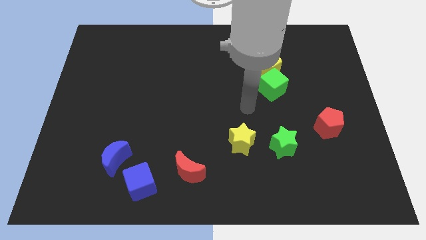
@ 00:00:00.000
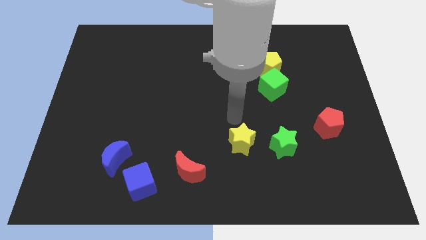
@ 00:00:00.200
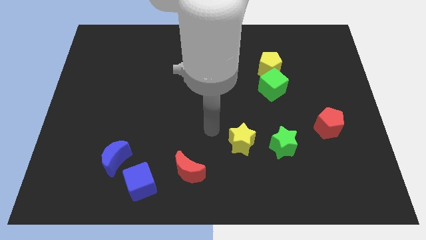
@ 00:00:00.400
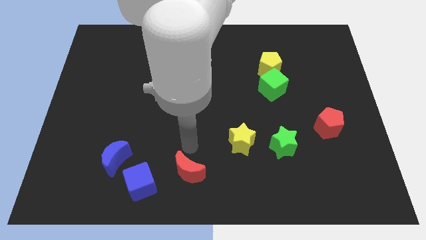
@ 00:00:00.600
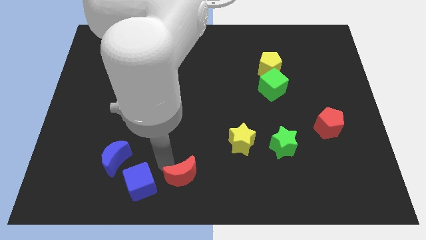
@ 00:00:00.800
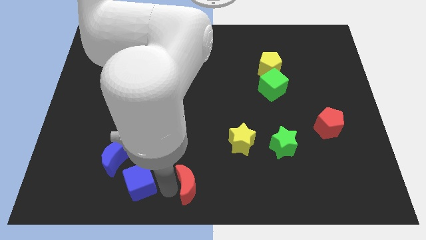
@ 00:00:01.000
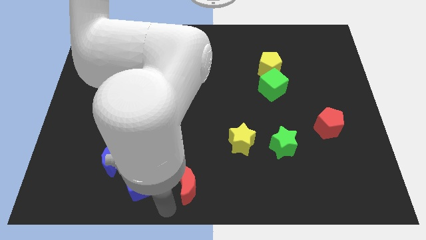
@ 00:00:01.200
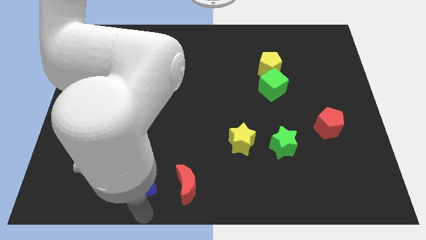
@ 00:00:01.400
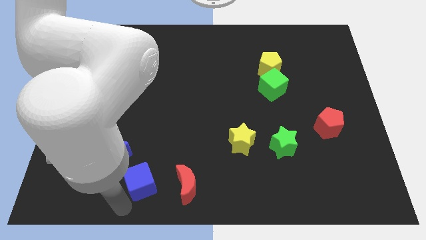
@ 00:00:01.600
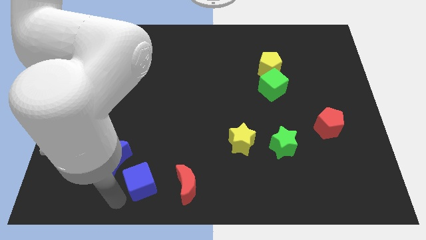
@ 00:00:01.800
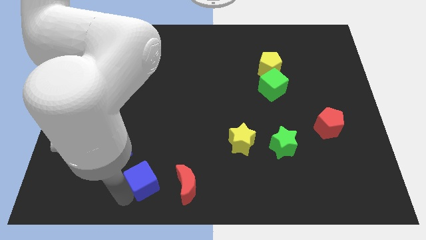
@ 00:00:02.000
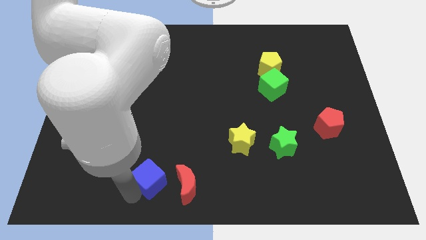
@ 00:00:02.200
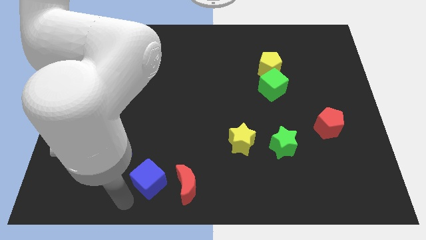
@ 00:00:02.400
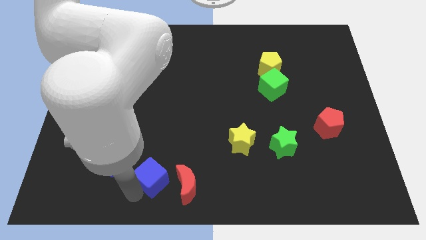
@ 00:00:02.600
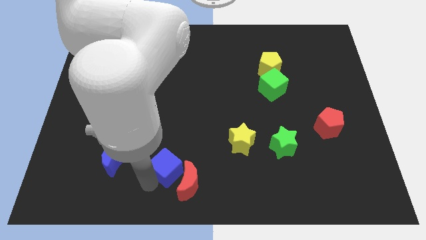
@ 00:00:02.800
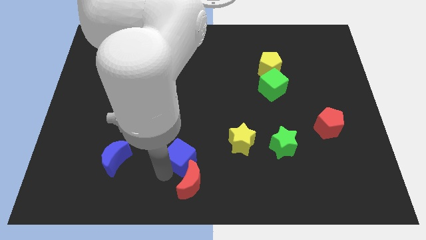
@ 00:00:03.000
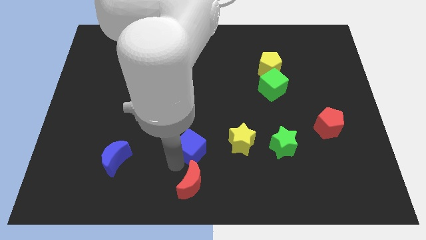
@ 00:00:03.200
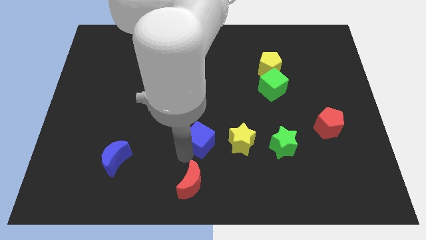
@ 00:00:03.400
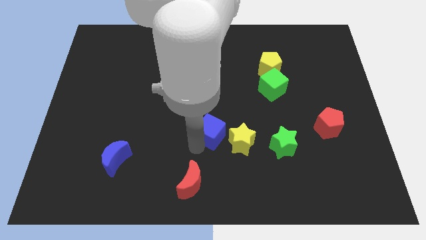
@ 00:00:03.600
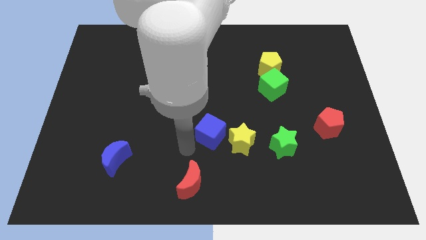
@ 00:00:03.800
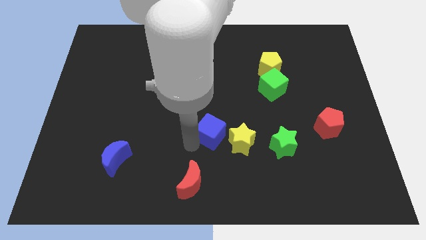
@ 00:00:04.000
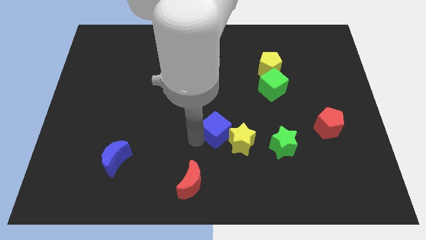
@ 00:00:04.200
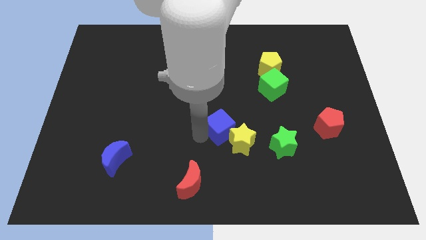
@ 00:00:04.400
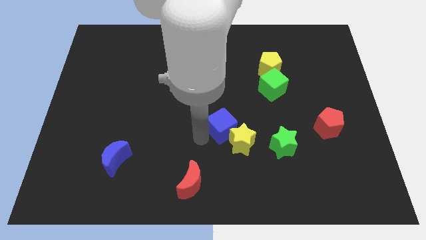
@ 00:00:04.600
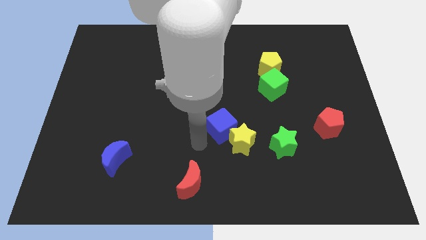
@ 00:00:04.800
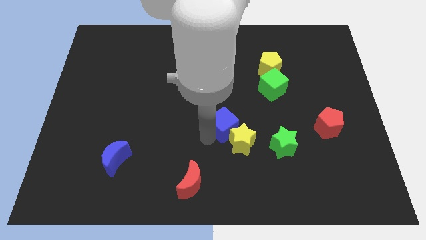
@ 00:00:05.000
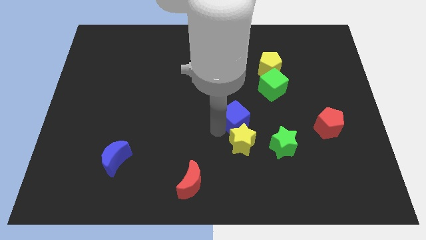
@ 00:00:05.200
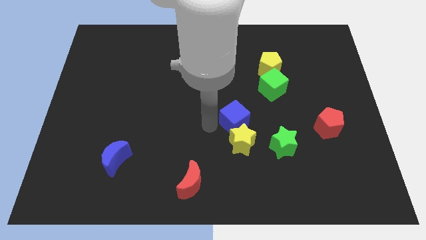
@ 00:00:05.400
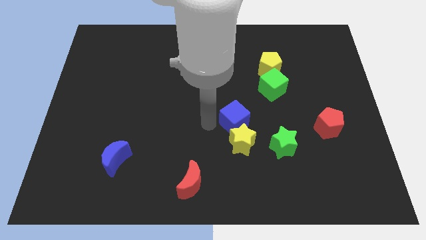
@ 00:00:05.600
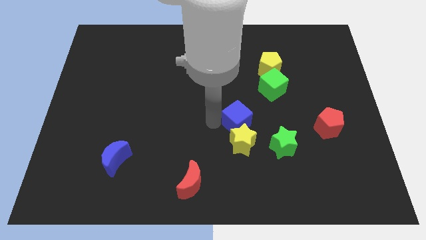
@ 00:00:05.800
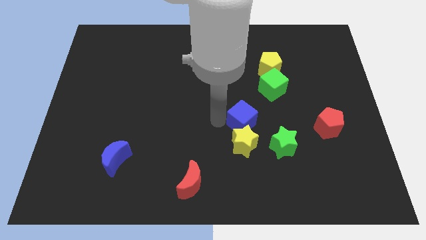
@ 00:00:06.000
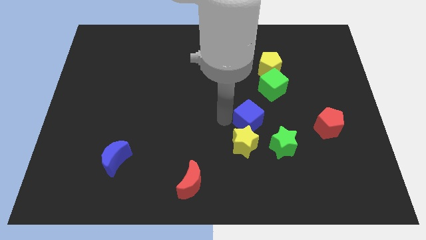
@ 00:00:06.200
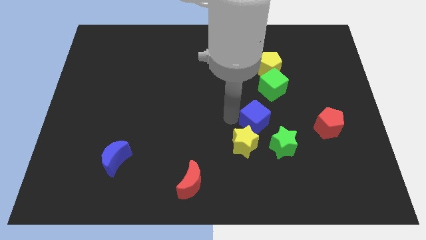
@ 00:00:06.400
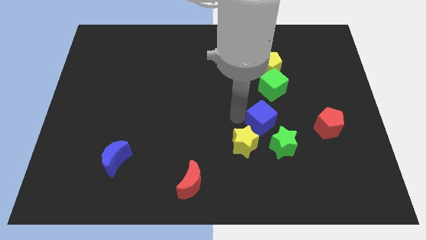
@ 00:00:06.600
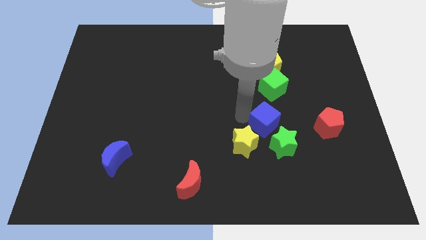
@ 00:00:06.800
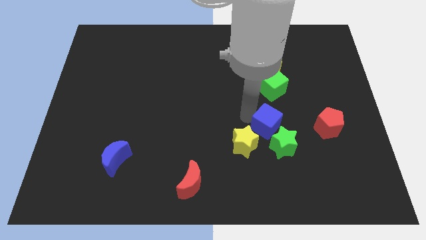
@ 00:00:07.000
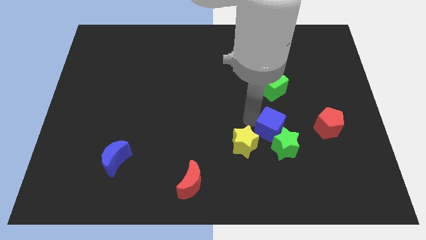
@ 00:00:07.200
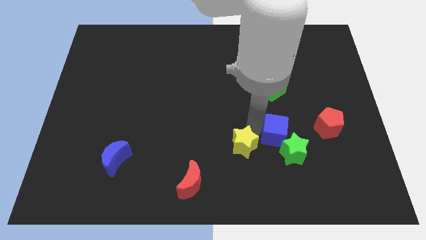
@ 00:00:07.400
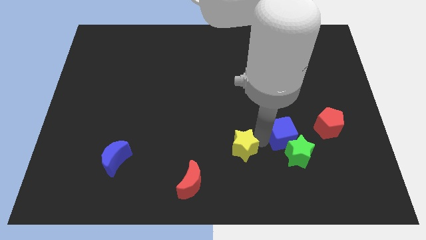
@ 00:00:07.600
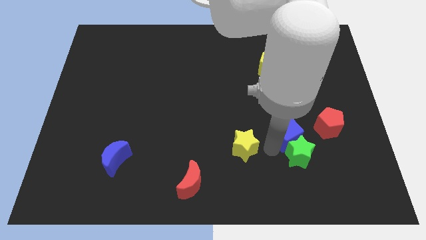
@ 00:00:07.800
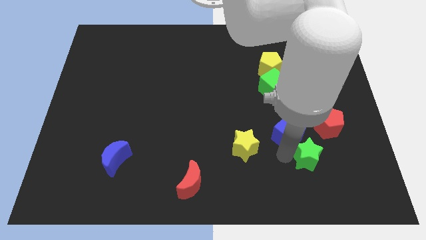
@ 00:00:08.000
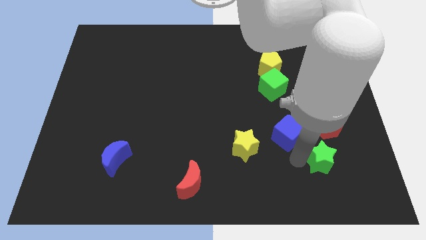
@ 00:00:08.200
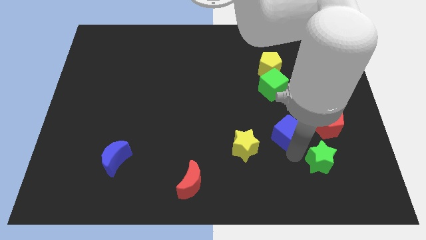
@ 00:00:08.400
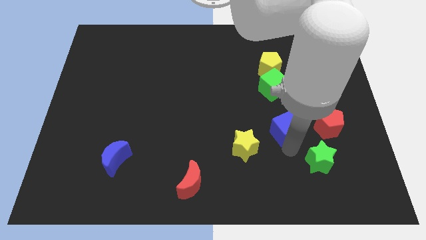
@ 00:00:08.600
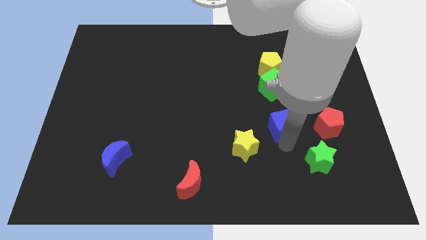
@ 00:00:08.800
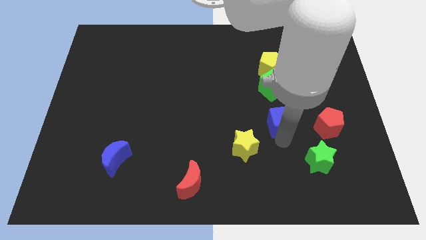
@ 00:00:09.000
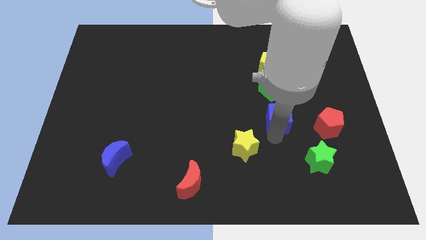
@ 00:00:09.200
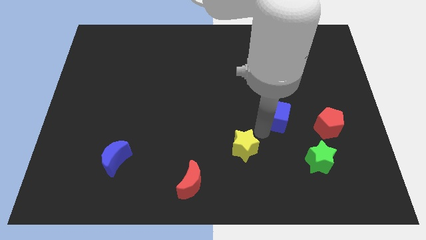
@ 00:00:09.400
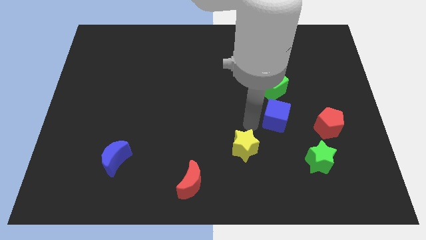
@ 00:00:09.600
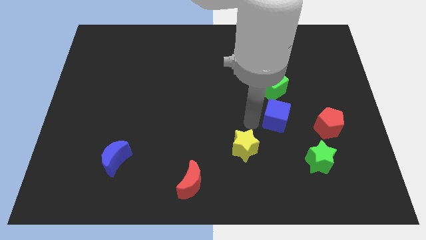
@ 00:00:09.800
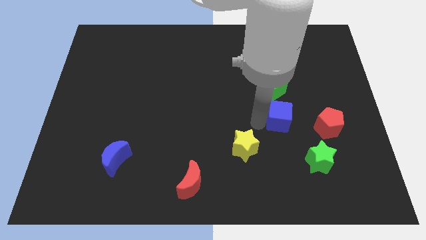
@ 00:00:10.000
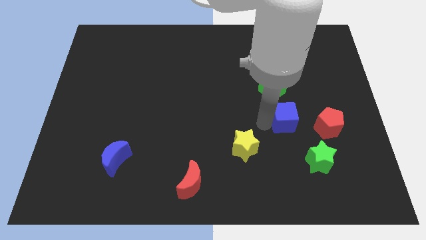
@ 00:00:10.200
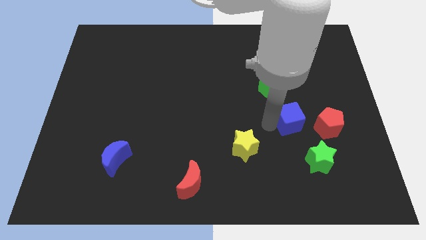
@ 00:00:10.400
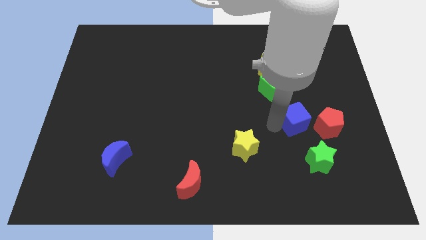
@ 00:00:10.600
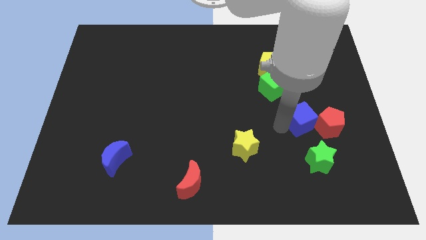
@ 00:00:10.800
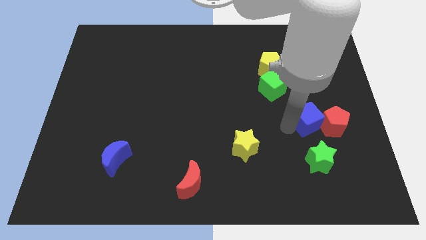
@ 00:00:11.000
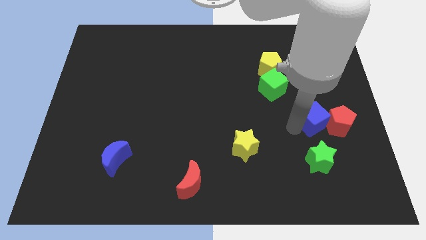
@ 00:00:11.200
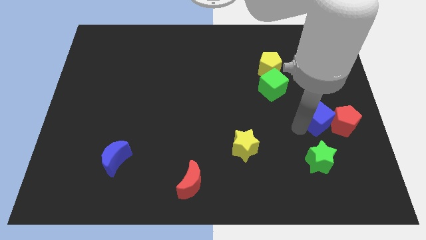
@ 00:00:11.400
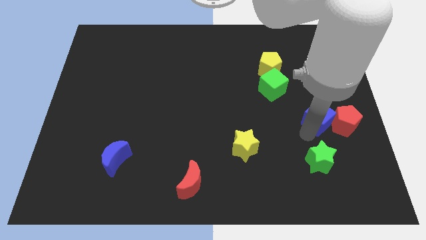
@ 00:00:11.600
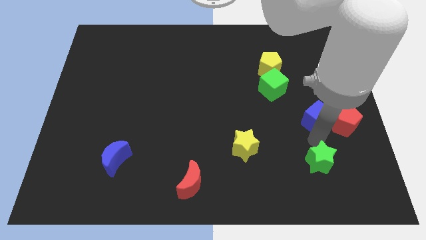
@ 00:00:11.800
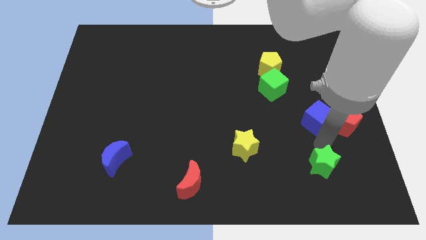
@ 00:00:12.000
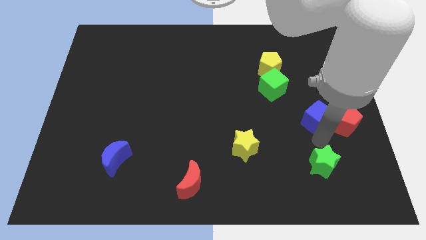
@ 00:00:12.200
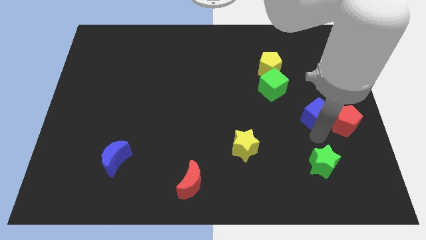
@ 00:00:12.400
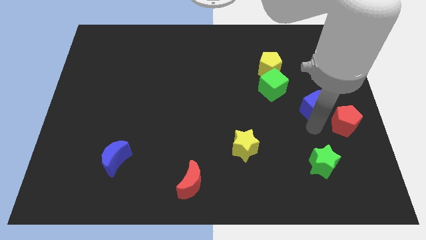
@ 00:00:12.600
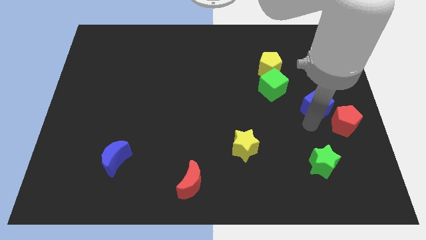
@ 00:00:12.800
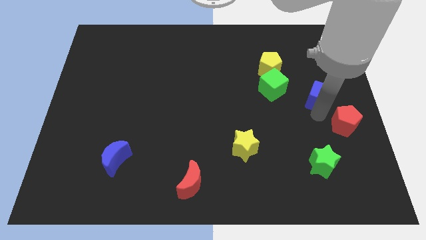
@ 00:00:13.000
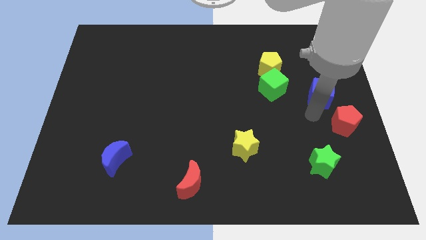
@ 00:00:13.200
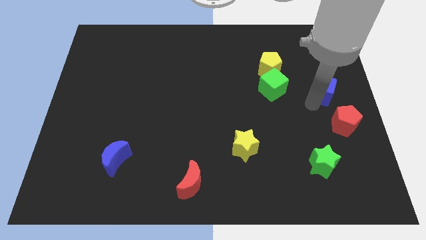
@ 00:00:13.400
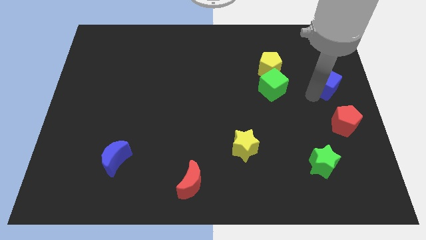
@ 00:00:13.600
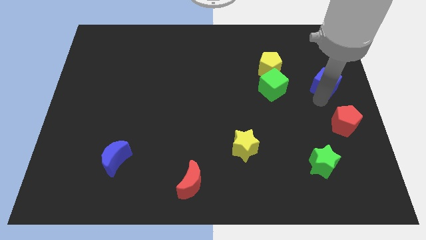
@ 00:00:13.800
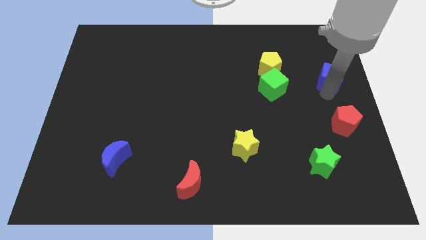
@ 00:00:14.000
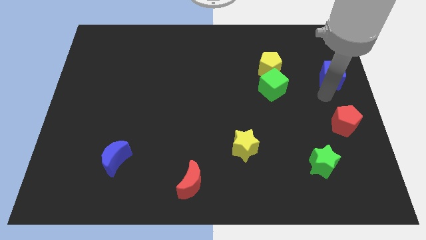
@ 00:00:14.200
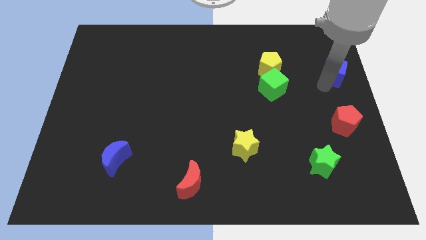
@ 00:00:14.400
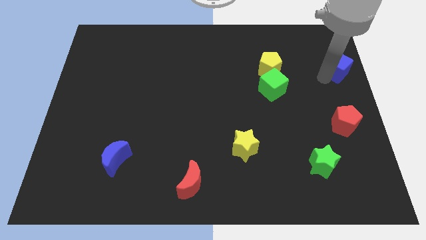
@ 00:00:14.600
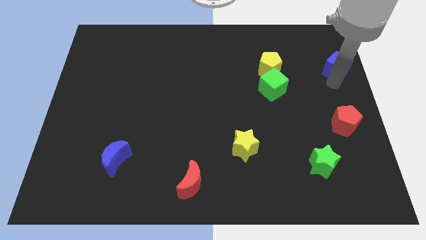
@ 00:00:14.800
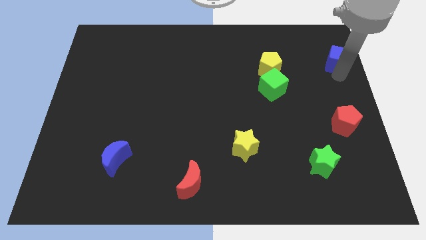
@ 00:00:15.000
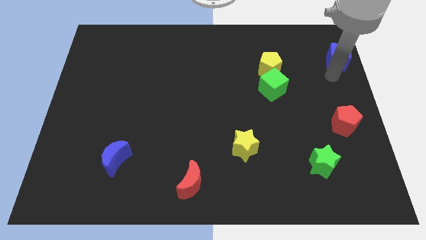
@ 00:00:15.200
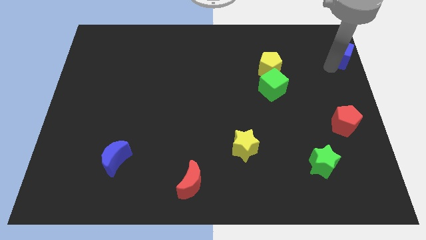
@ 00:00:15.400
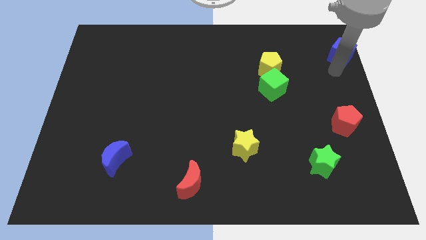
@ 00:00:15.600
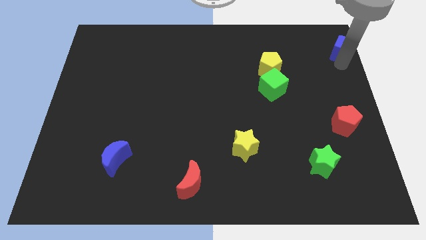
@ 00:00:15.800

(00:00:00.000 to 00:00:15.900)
put the blue cube to the upper right corner

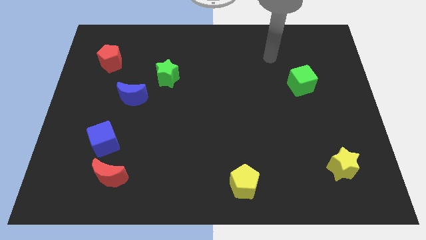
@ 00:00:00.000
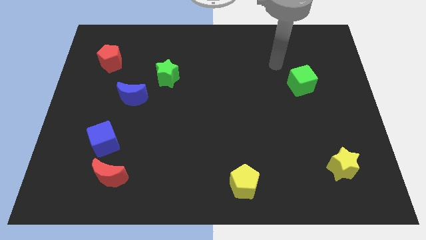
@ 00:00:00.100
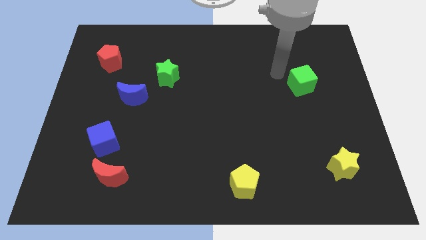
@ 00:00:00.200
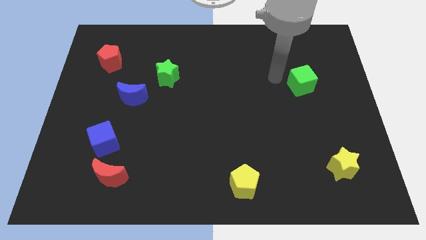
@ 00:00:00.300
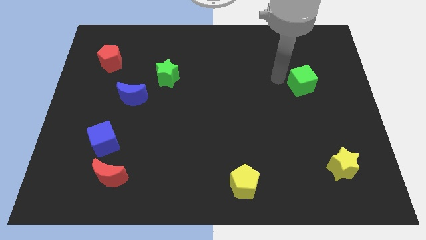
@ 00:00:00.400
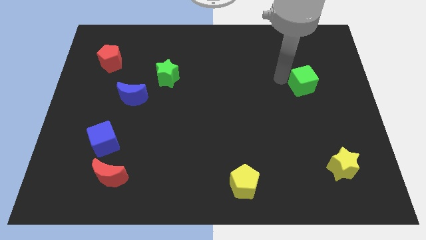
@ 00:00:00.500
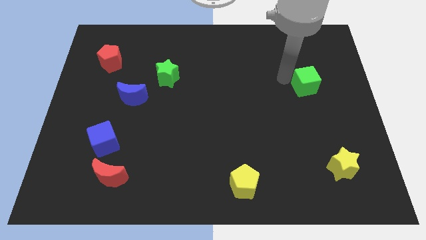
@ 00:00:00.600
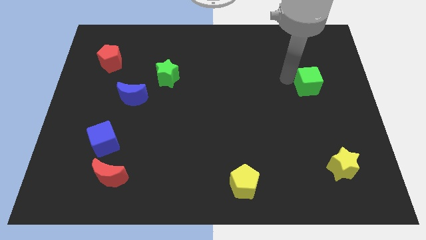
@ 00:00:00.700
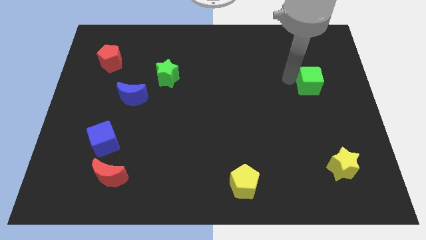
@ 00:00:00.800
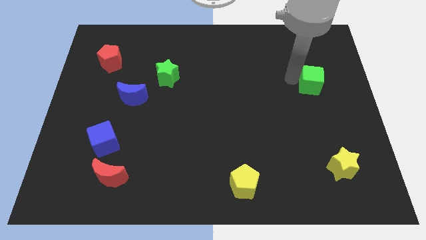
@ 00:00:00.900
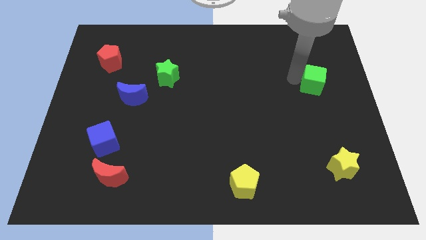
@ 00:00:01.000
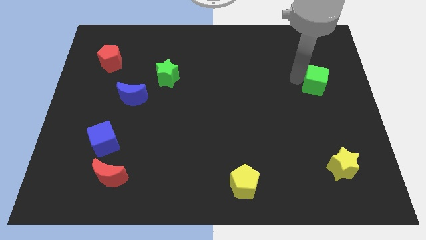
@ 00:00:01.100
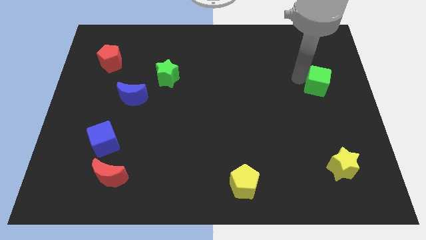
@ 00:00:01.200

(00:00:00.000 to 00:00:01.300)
put the green cube to the right side
